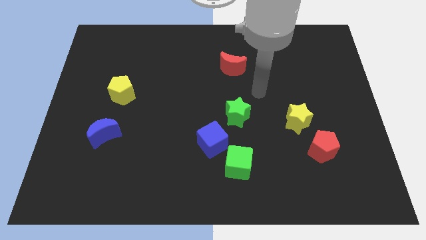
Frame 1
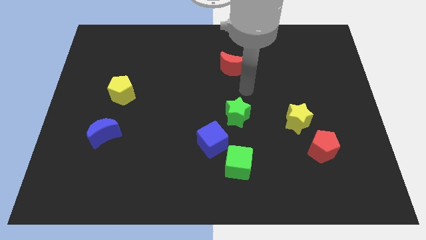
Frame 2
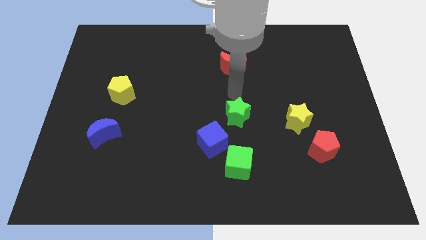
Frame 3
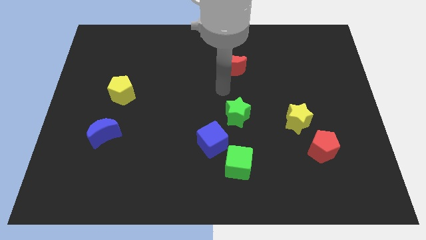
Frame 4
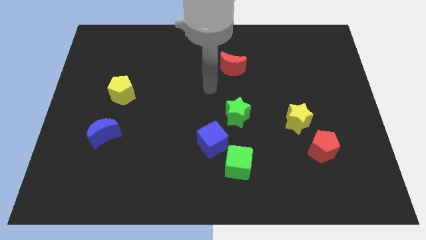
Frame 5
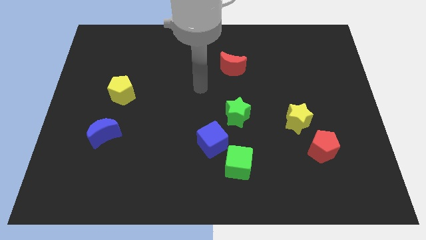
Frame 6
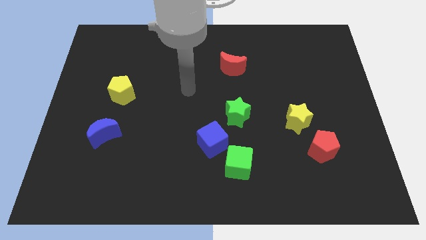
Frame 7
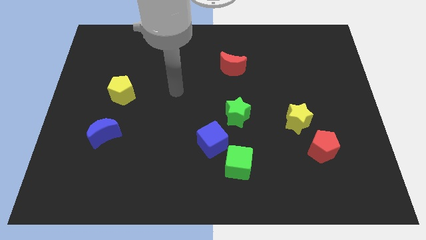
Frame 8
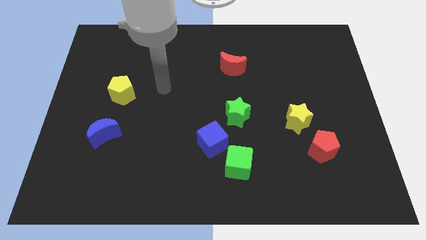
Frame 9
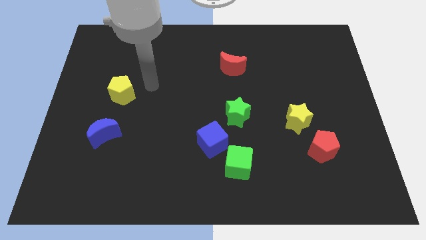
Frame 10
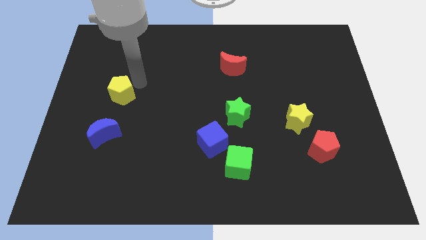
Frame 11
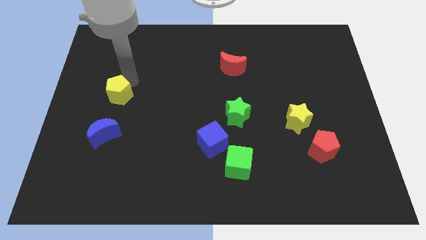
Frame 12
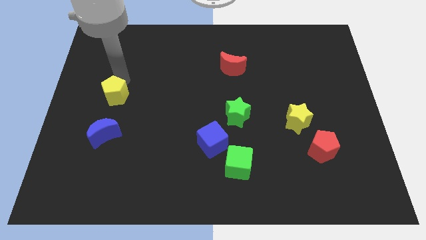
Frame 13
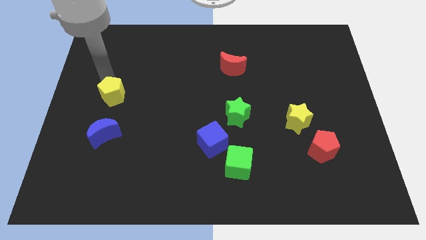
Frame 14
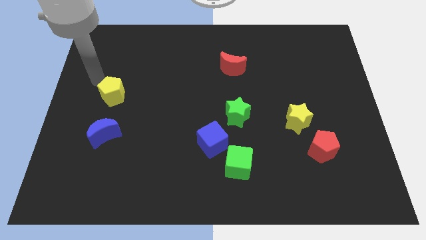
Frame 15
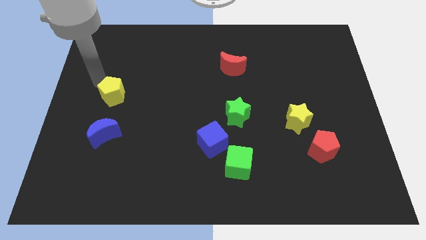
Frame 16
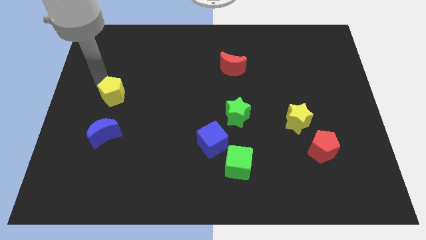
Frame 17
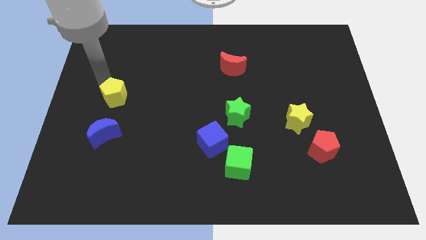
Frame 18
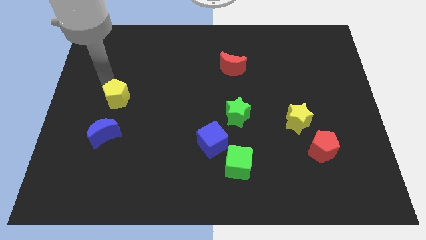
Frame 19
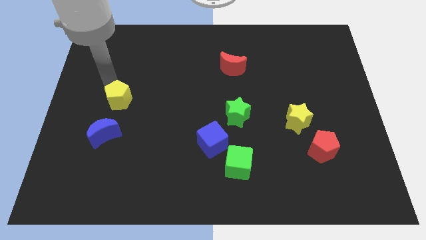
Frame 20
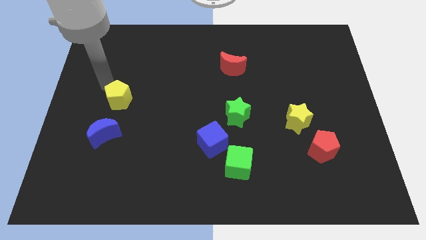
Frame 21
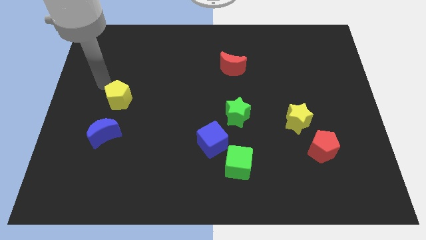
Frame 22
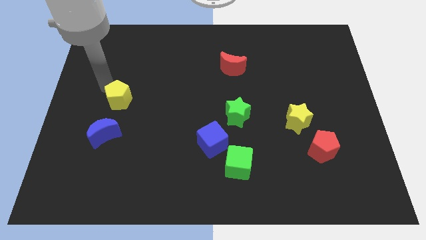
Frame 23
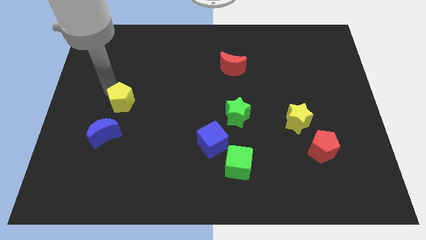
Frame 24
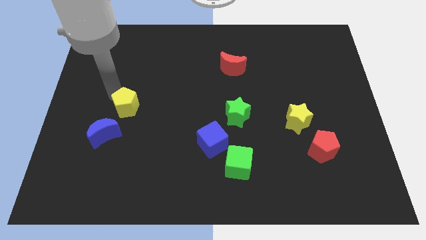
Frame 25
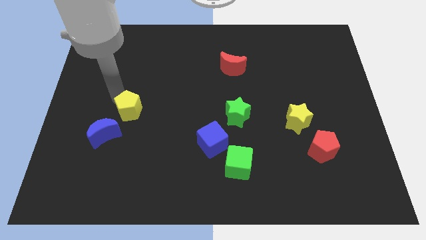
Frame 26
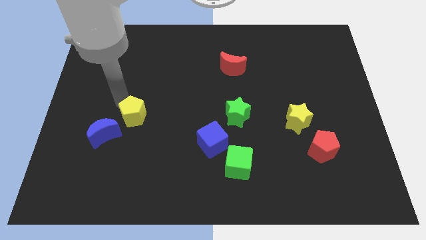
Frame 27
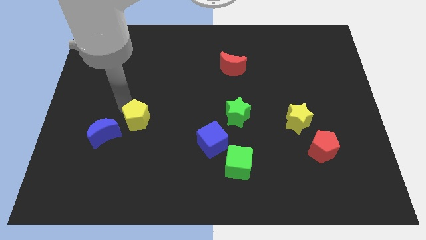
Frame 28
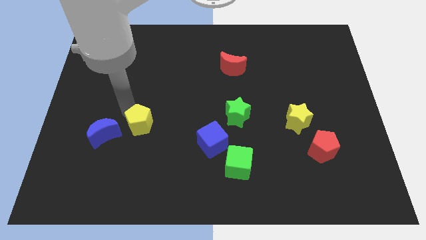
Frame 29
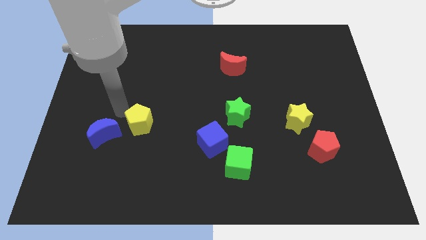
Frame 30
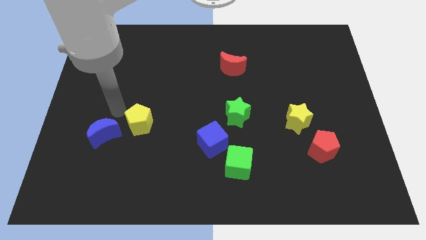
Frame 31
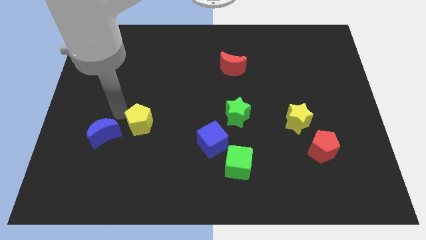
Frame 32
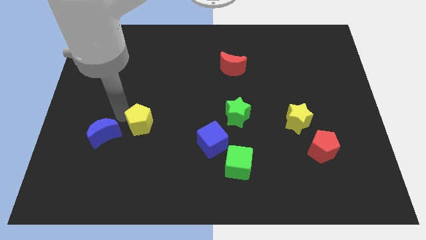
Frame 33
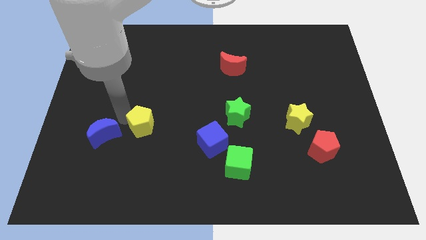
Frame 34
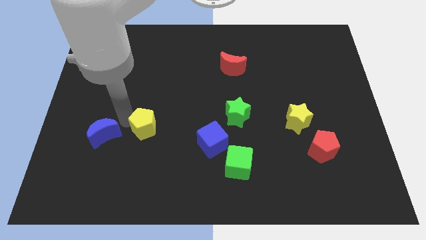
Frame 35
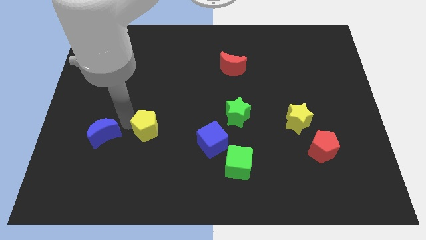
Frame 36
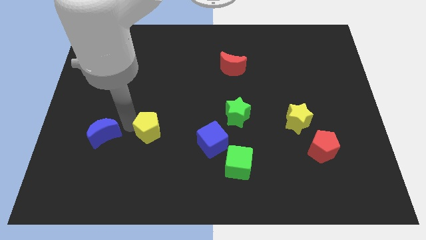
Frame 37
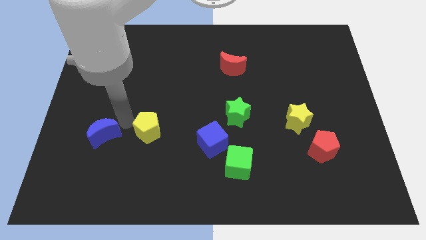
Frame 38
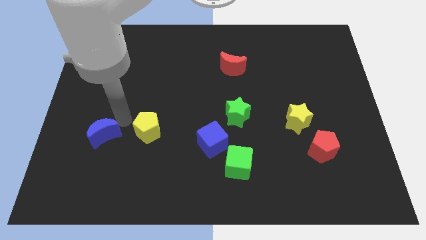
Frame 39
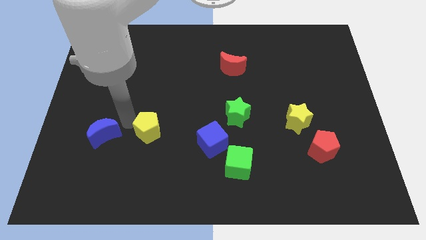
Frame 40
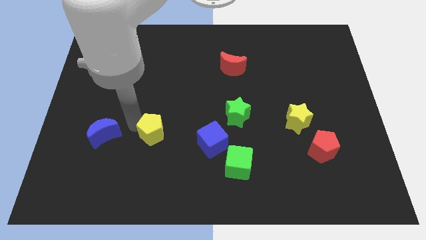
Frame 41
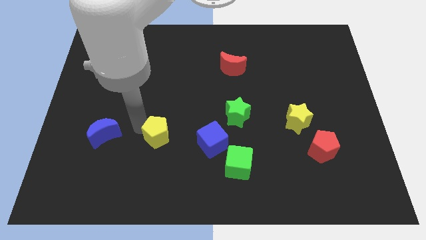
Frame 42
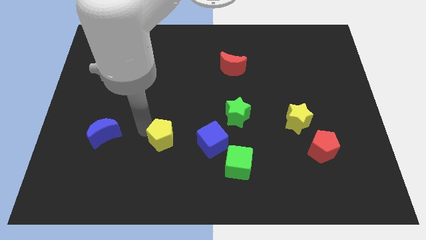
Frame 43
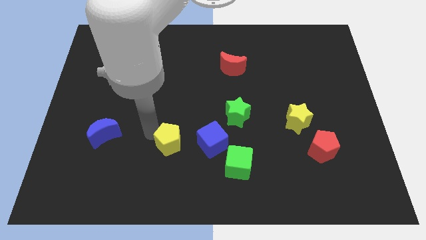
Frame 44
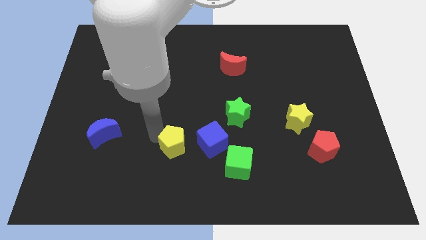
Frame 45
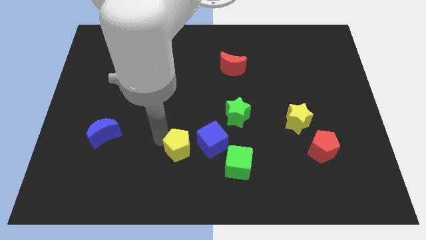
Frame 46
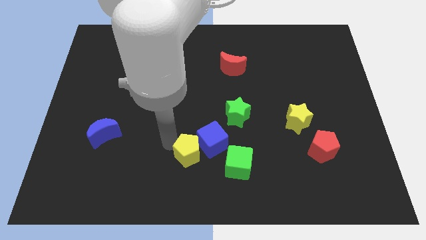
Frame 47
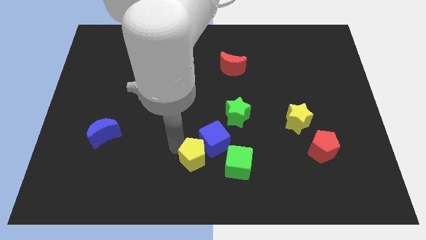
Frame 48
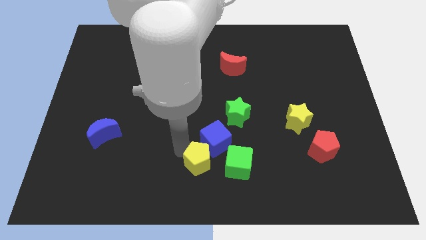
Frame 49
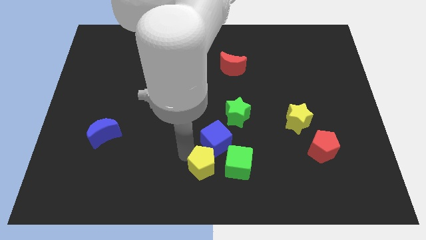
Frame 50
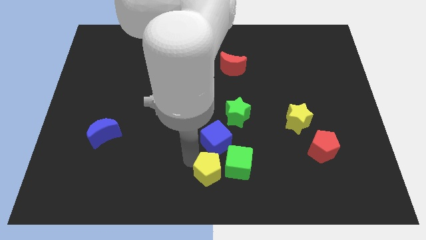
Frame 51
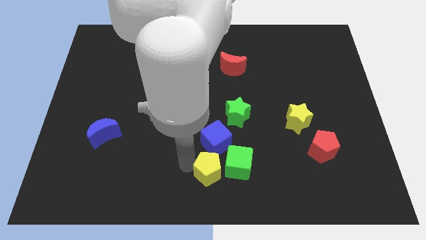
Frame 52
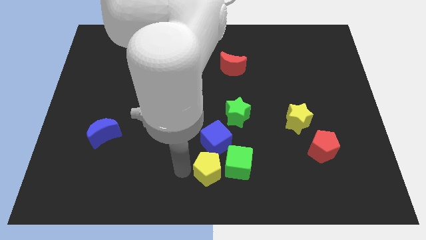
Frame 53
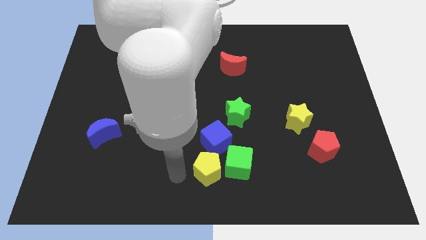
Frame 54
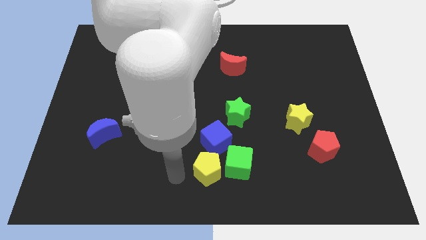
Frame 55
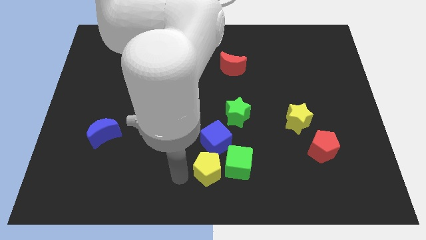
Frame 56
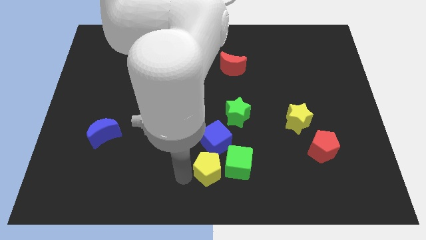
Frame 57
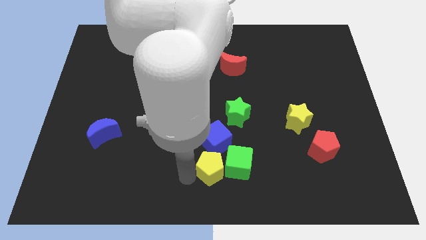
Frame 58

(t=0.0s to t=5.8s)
slide the yellow pentagon close to the green cube

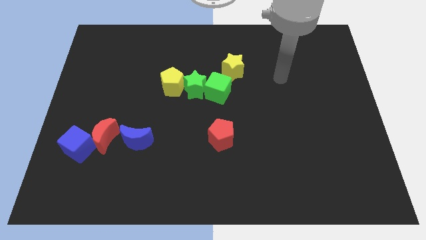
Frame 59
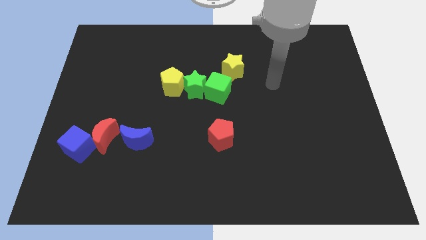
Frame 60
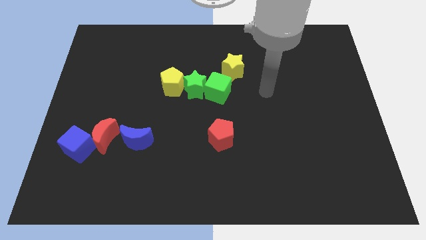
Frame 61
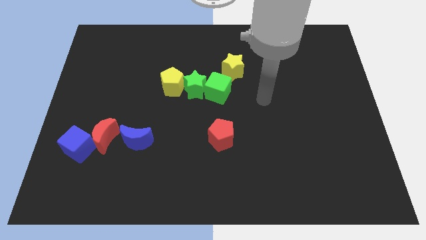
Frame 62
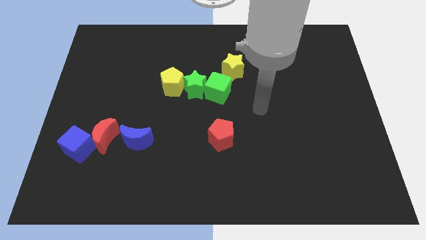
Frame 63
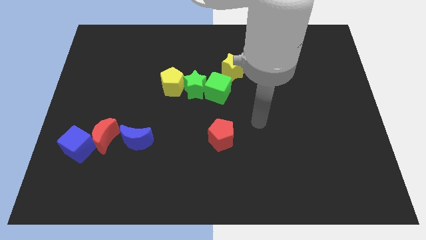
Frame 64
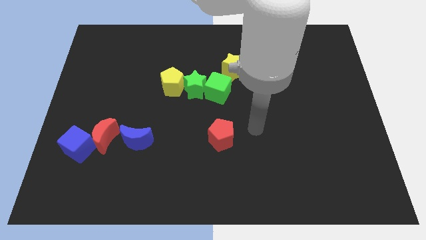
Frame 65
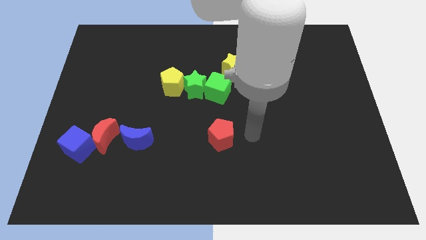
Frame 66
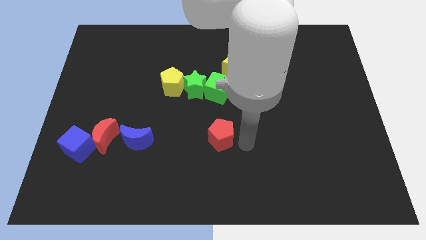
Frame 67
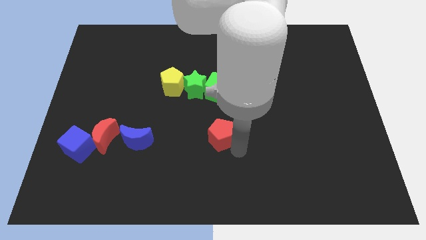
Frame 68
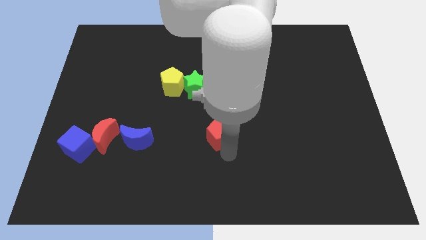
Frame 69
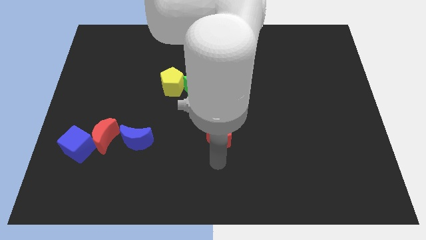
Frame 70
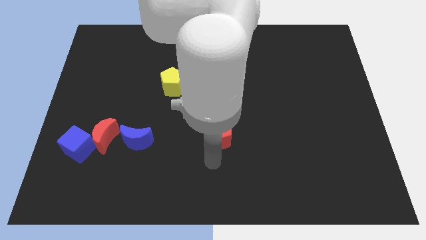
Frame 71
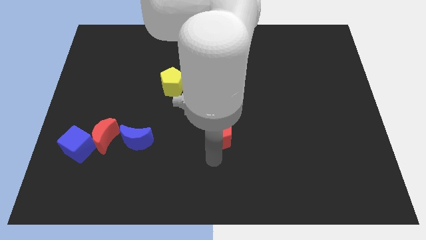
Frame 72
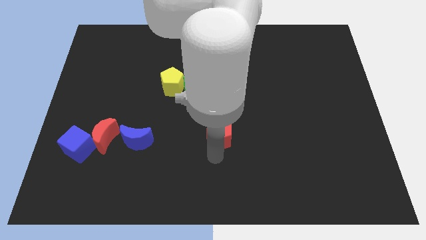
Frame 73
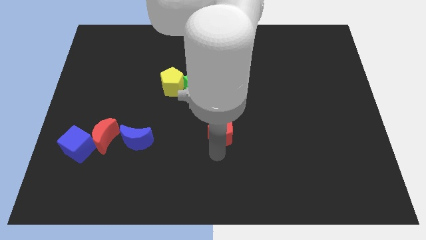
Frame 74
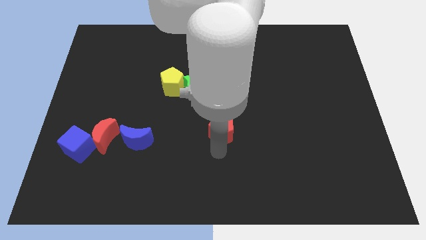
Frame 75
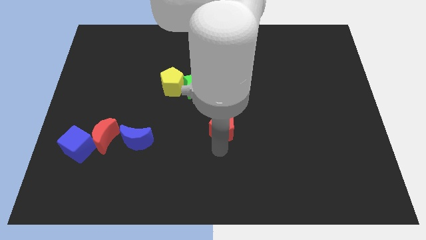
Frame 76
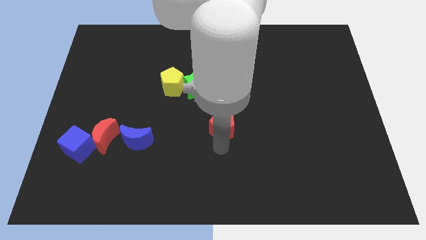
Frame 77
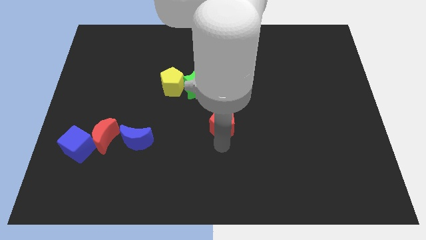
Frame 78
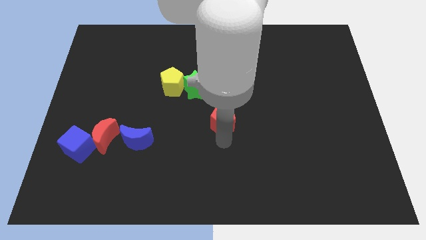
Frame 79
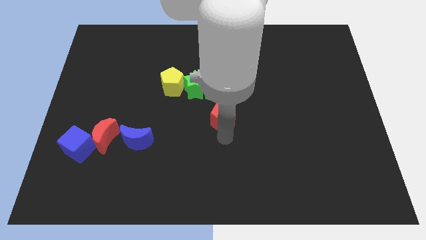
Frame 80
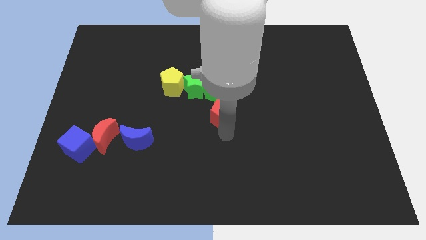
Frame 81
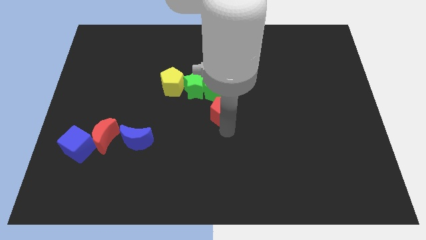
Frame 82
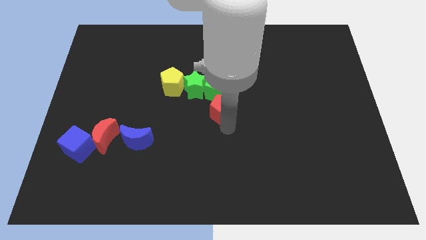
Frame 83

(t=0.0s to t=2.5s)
push the red pentagon towards the green cube
